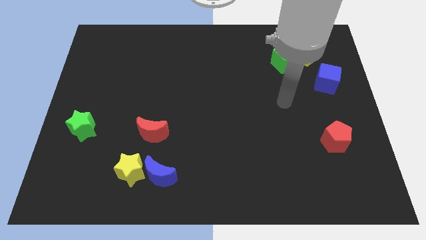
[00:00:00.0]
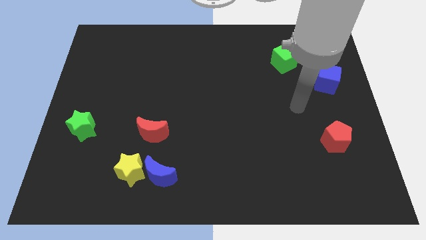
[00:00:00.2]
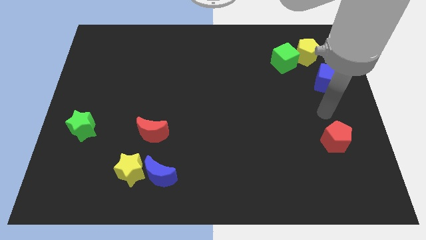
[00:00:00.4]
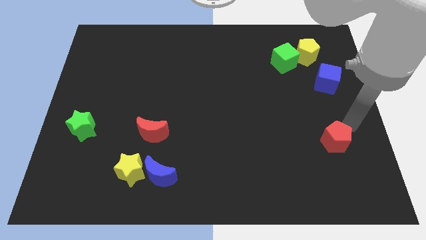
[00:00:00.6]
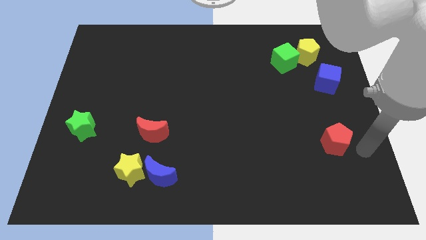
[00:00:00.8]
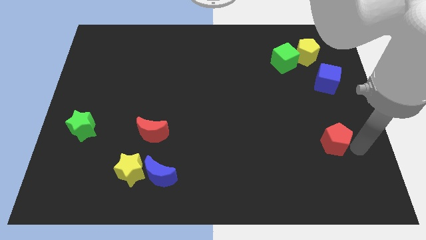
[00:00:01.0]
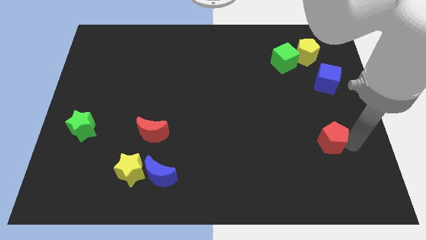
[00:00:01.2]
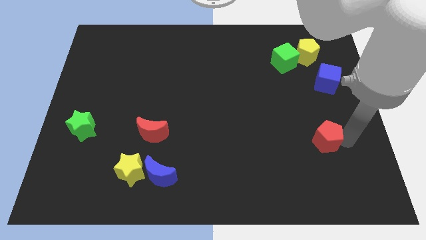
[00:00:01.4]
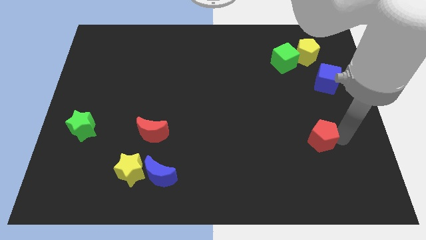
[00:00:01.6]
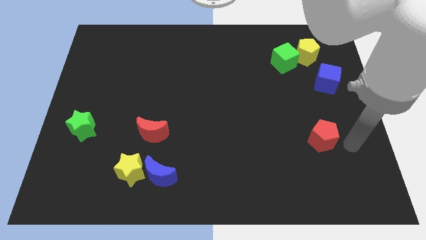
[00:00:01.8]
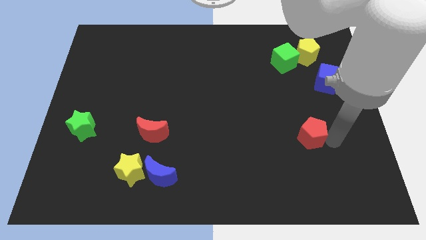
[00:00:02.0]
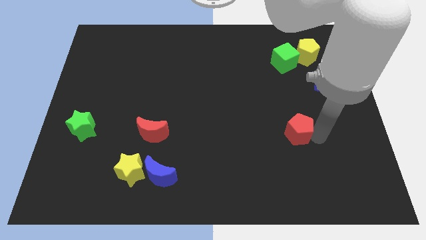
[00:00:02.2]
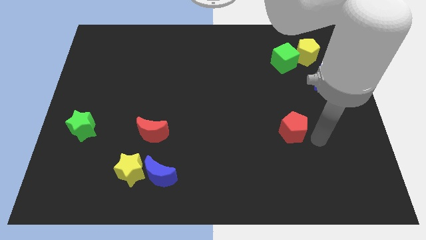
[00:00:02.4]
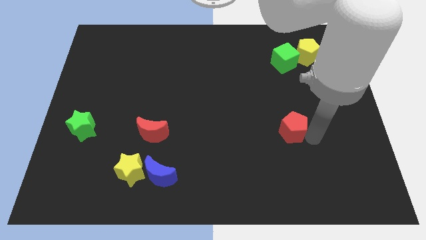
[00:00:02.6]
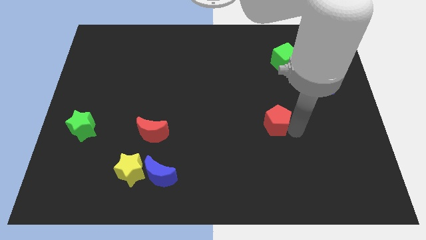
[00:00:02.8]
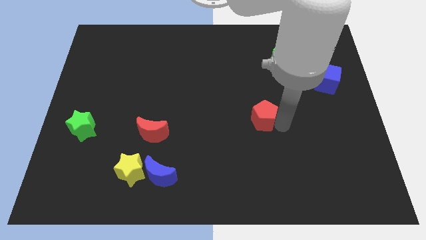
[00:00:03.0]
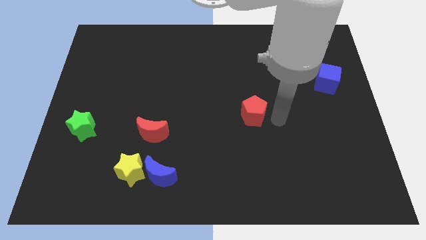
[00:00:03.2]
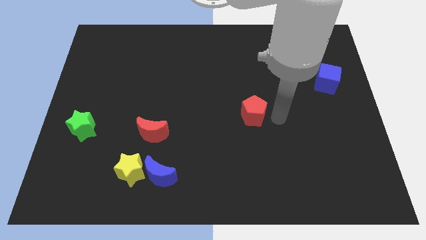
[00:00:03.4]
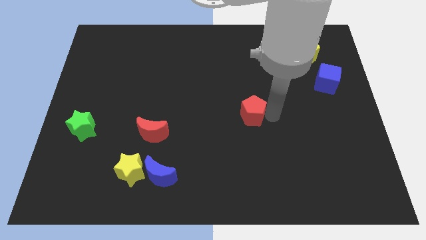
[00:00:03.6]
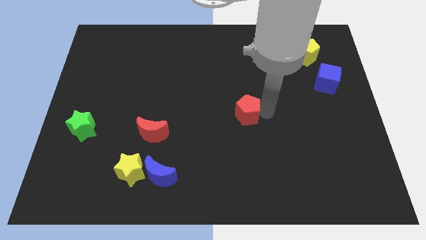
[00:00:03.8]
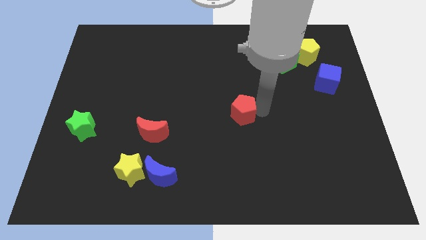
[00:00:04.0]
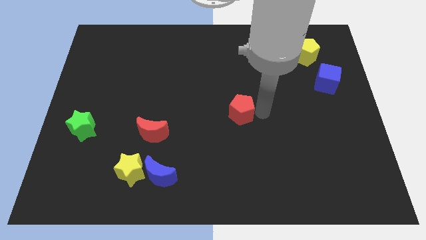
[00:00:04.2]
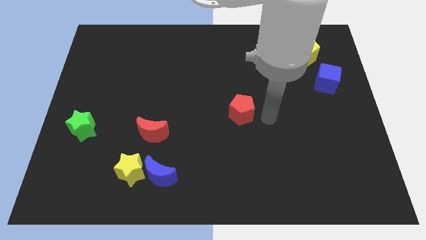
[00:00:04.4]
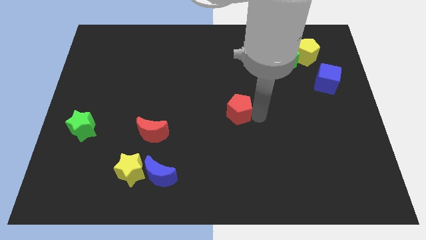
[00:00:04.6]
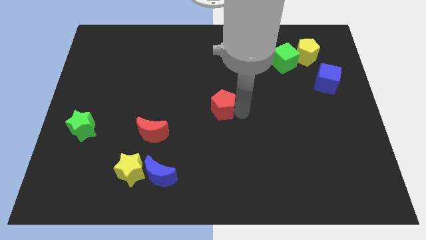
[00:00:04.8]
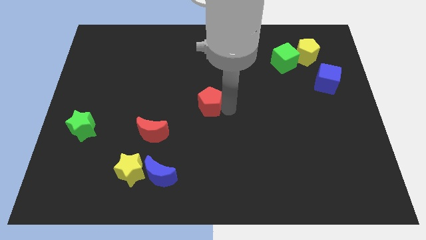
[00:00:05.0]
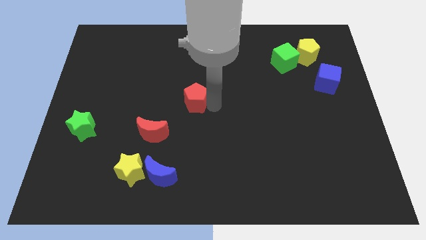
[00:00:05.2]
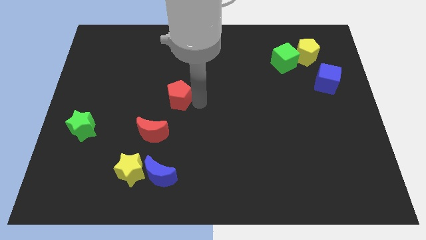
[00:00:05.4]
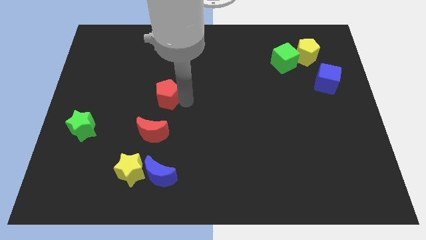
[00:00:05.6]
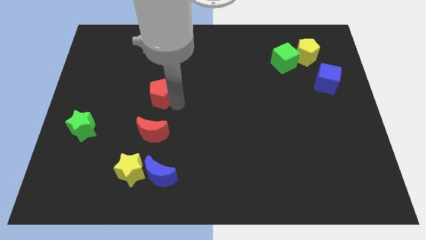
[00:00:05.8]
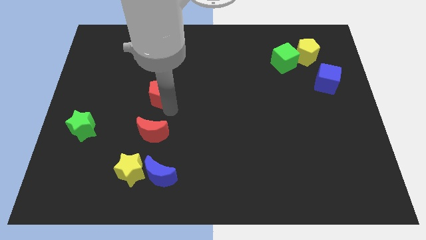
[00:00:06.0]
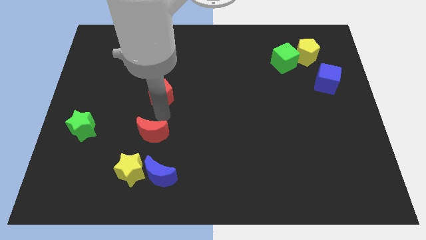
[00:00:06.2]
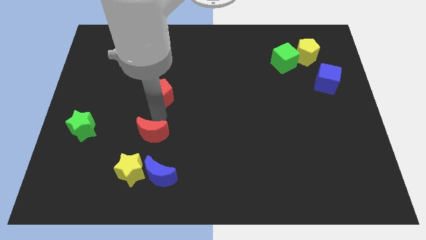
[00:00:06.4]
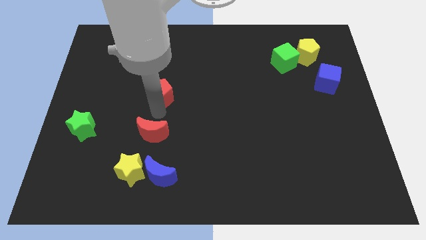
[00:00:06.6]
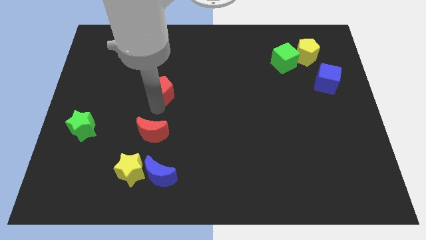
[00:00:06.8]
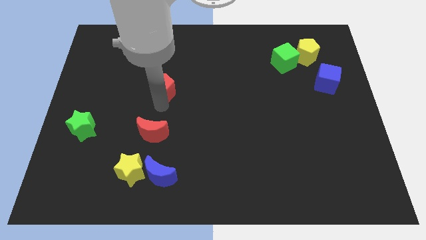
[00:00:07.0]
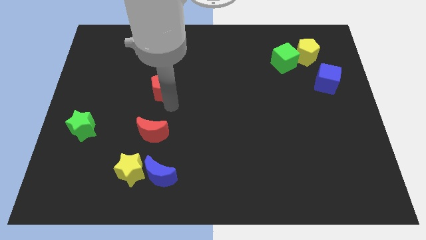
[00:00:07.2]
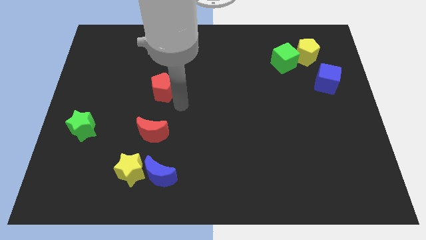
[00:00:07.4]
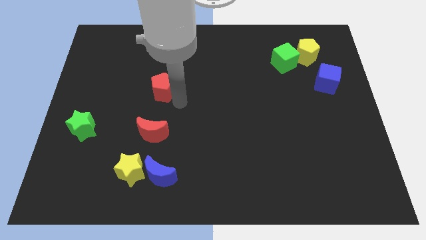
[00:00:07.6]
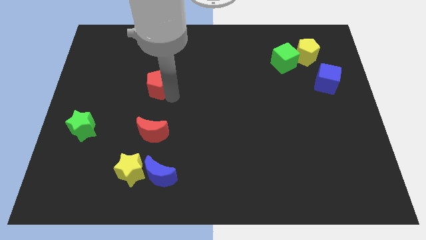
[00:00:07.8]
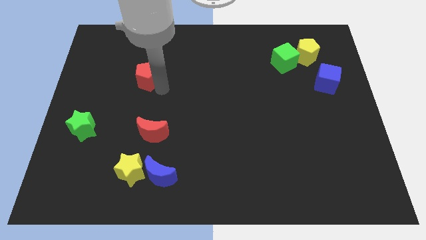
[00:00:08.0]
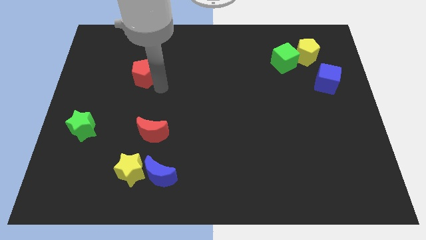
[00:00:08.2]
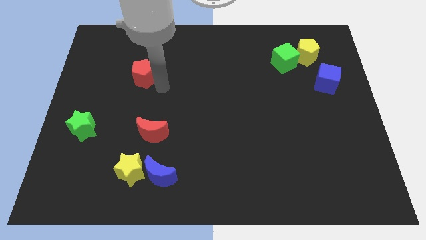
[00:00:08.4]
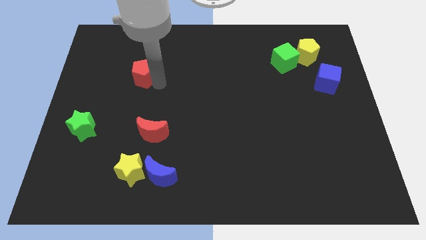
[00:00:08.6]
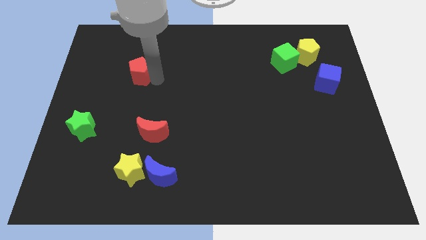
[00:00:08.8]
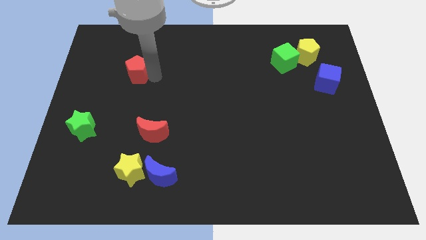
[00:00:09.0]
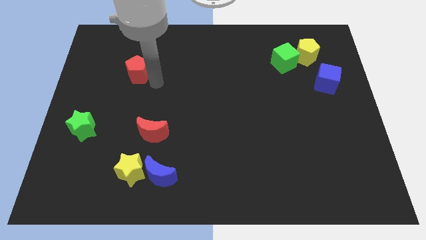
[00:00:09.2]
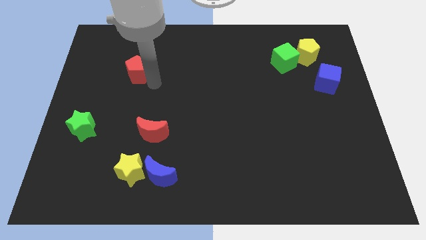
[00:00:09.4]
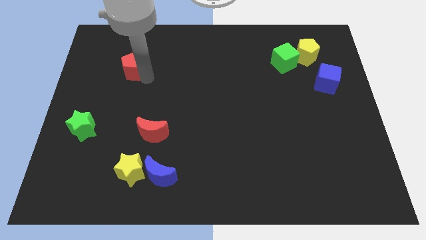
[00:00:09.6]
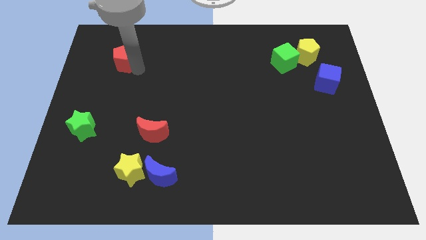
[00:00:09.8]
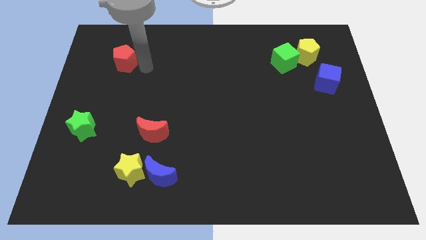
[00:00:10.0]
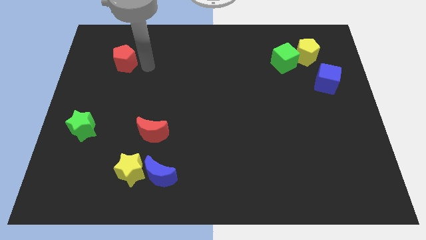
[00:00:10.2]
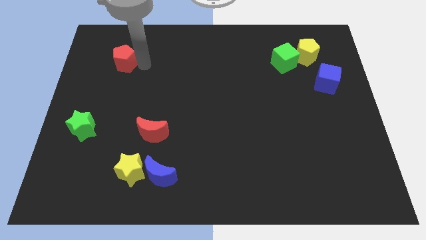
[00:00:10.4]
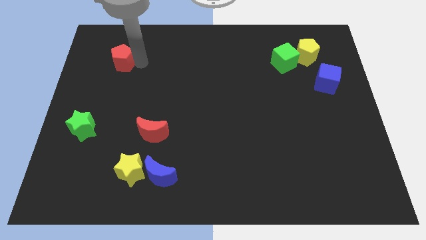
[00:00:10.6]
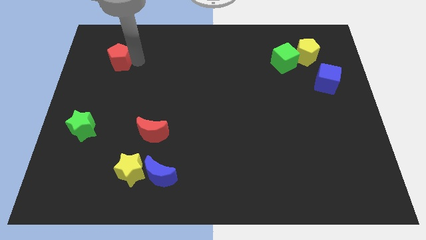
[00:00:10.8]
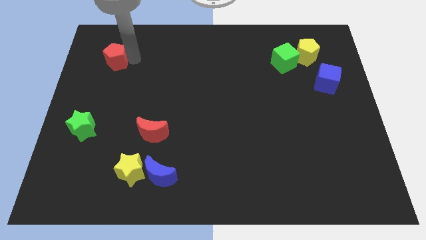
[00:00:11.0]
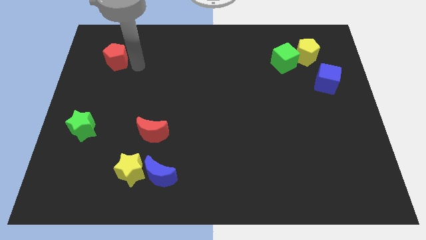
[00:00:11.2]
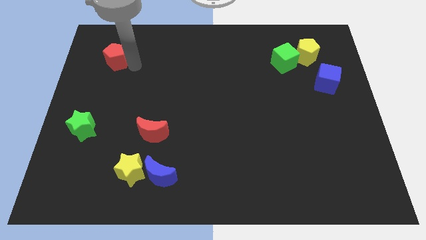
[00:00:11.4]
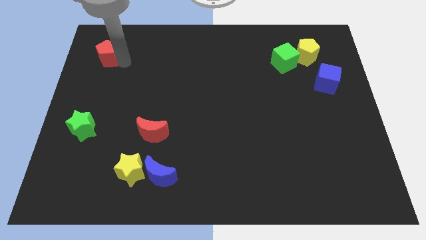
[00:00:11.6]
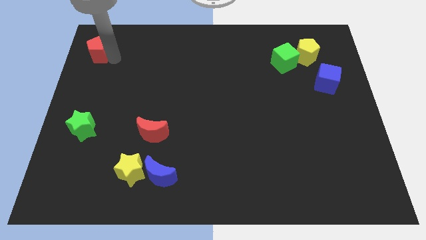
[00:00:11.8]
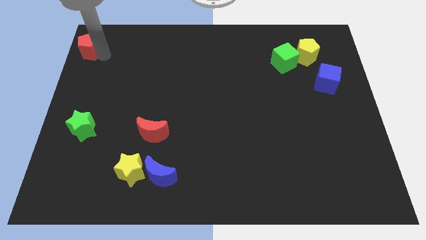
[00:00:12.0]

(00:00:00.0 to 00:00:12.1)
slide the red pentagon to the top left corner

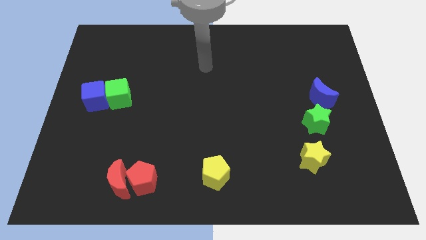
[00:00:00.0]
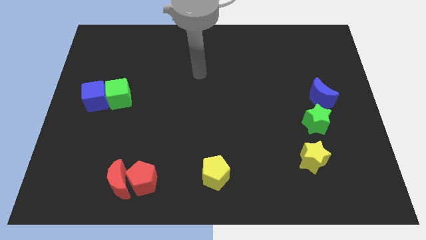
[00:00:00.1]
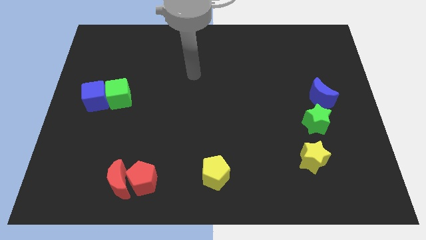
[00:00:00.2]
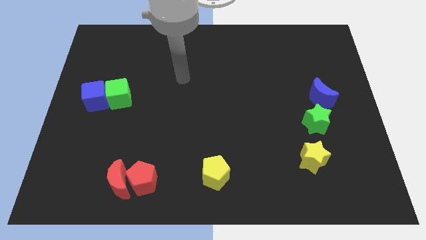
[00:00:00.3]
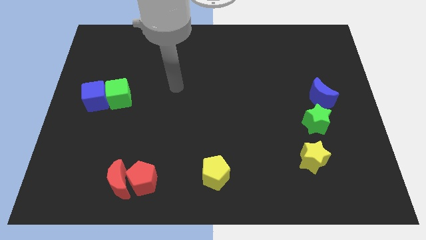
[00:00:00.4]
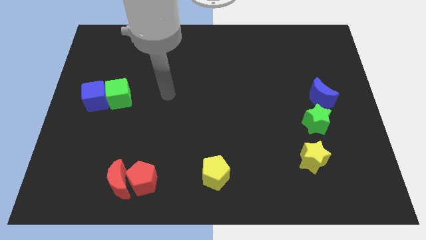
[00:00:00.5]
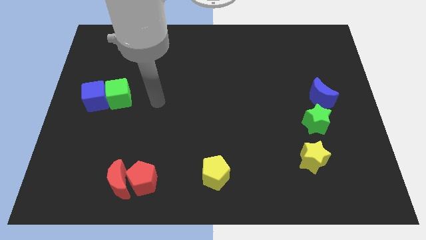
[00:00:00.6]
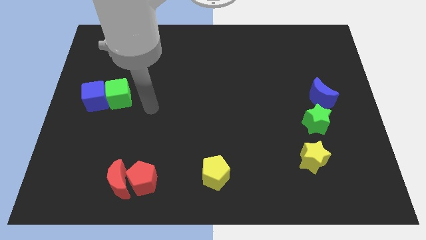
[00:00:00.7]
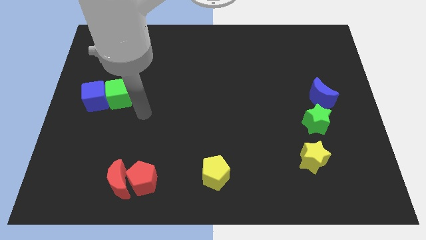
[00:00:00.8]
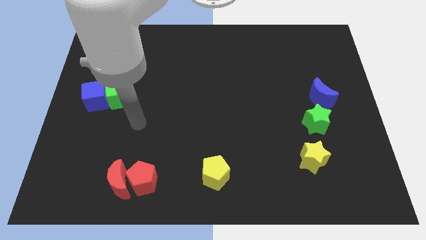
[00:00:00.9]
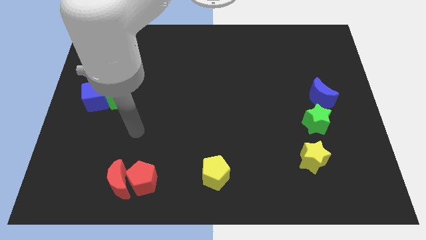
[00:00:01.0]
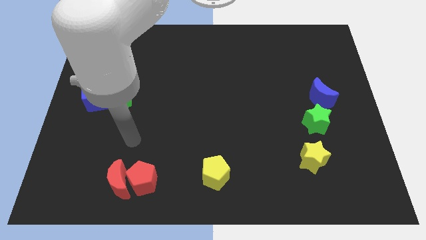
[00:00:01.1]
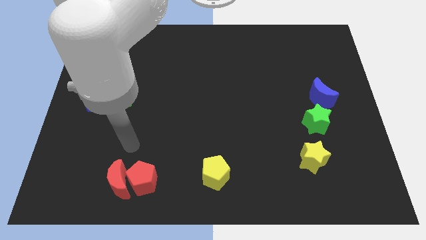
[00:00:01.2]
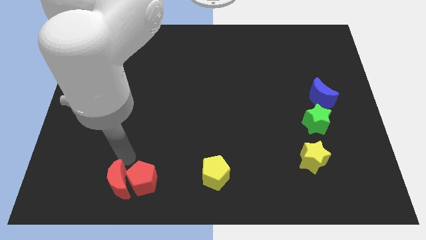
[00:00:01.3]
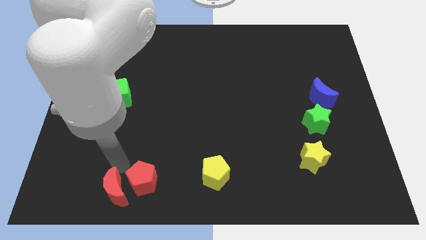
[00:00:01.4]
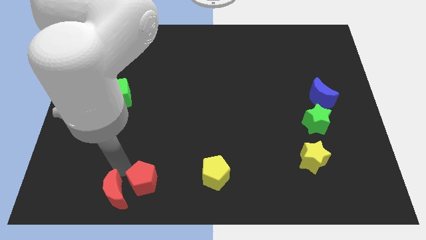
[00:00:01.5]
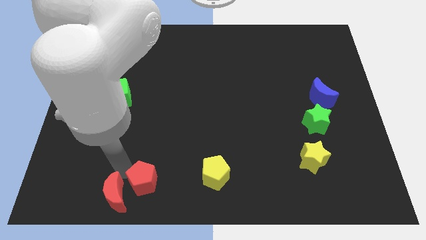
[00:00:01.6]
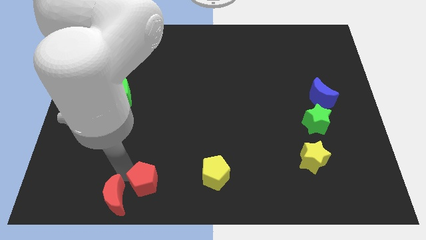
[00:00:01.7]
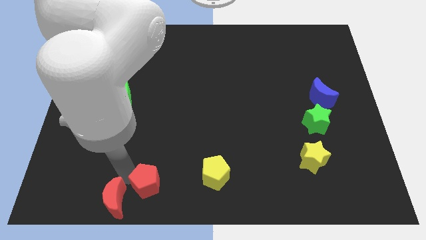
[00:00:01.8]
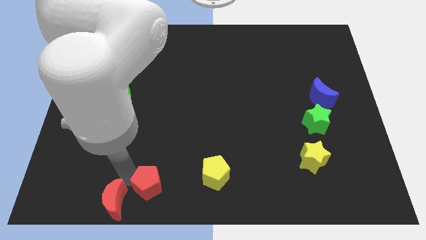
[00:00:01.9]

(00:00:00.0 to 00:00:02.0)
move the red pentagon to the bottom side
